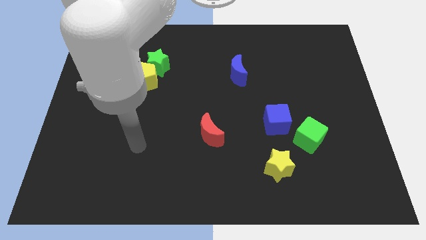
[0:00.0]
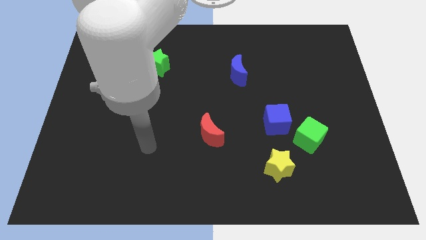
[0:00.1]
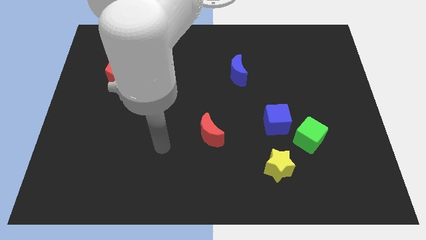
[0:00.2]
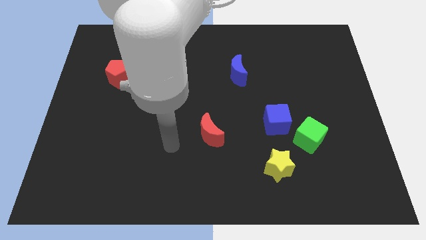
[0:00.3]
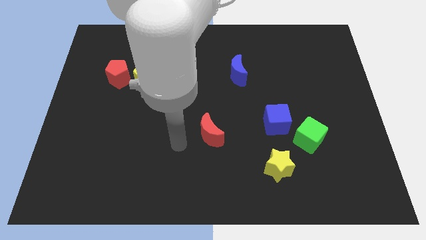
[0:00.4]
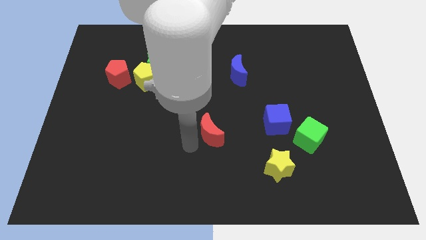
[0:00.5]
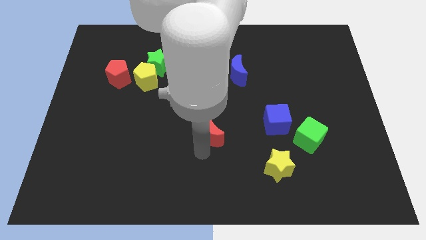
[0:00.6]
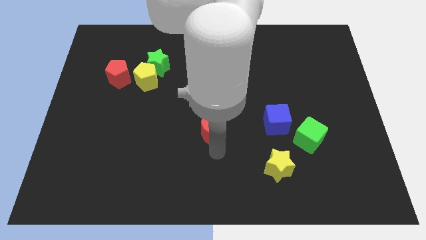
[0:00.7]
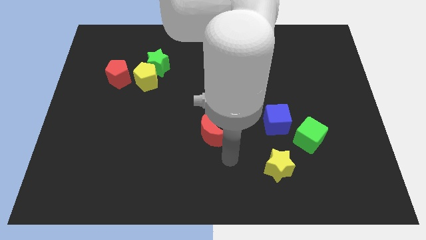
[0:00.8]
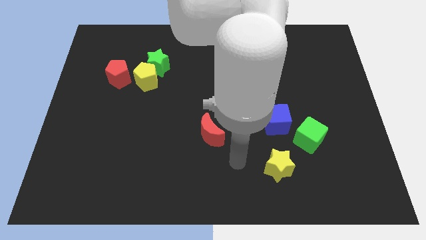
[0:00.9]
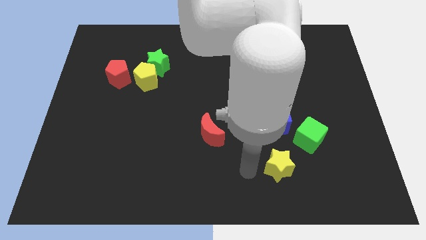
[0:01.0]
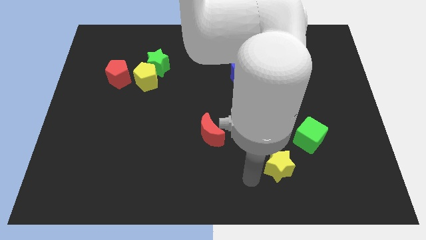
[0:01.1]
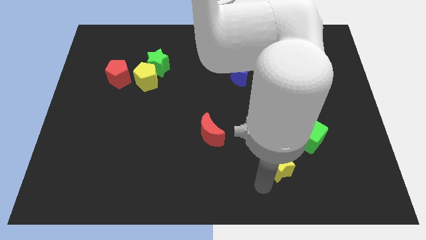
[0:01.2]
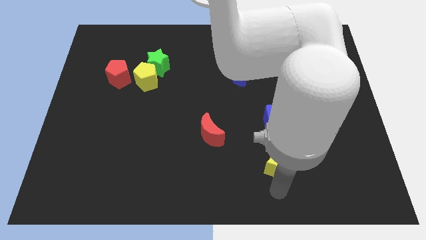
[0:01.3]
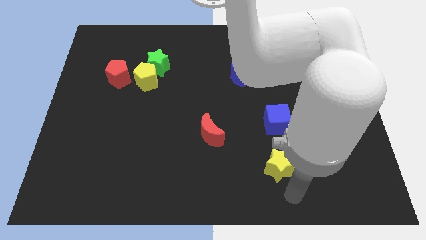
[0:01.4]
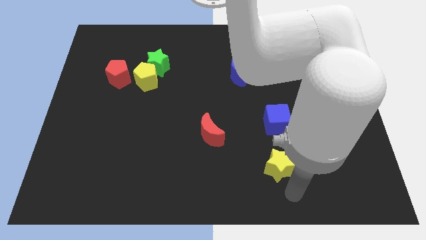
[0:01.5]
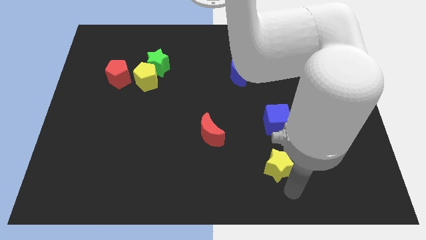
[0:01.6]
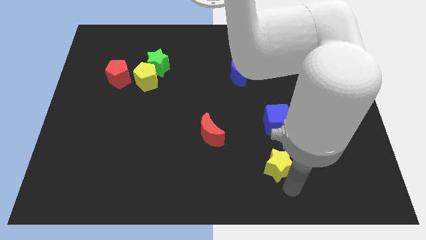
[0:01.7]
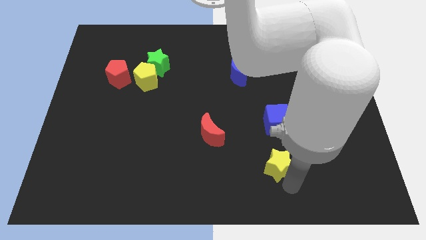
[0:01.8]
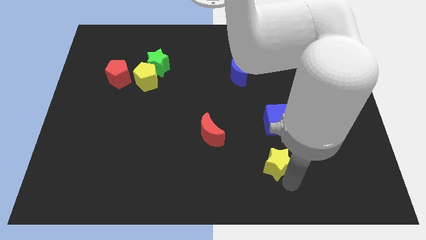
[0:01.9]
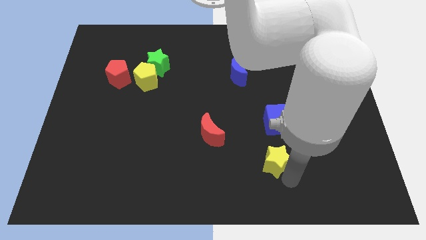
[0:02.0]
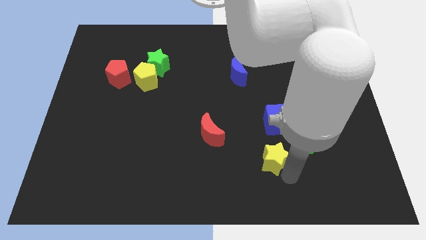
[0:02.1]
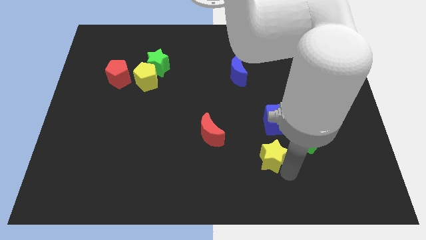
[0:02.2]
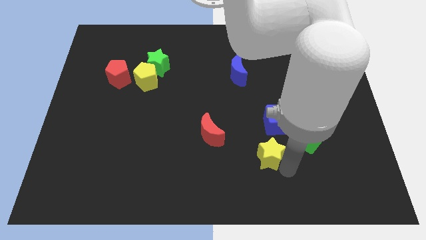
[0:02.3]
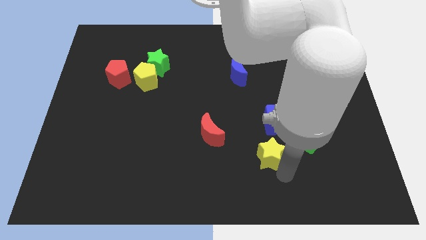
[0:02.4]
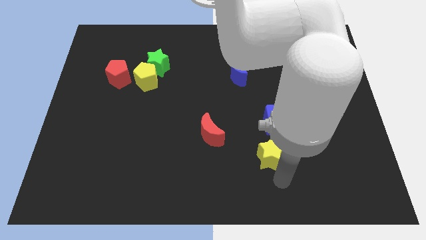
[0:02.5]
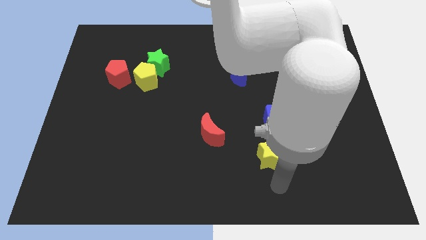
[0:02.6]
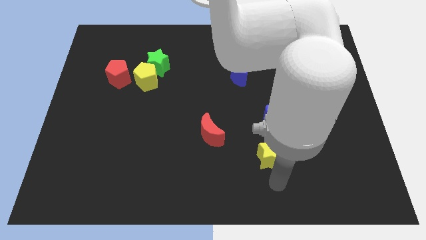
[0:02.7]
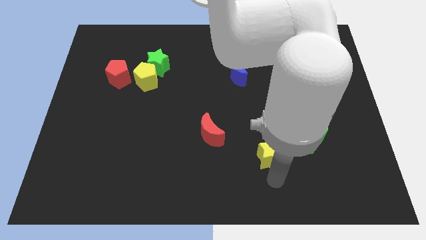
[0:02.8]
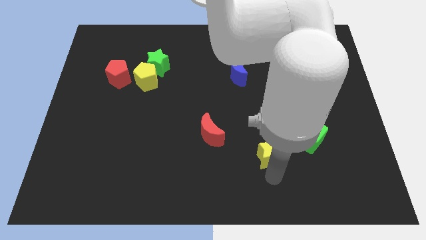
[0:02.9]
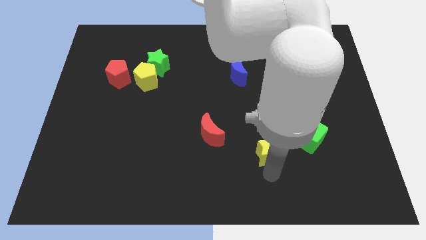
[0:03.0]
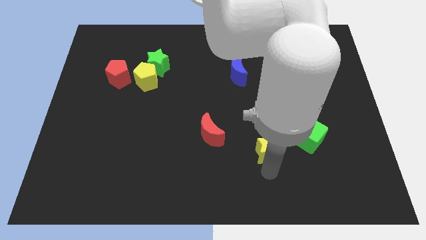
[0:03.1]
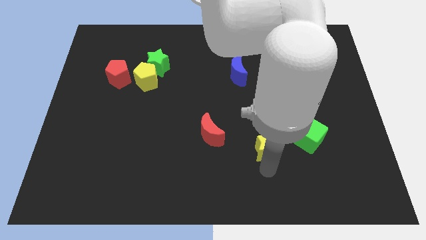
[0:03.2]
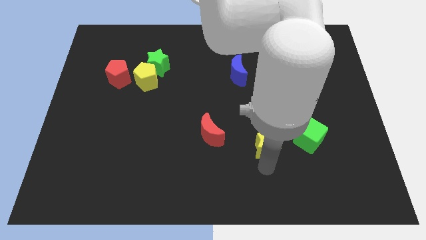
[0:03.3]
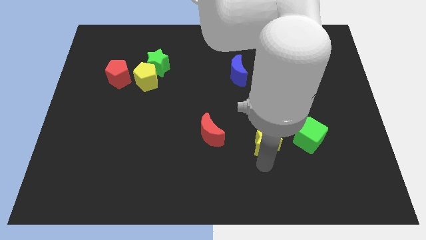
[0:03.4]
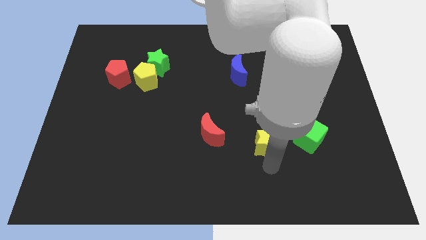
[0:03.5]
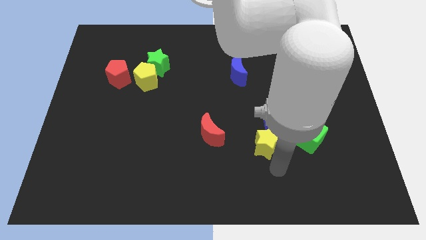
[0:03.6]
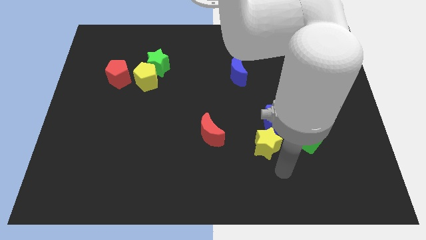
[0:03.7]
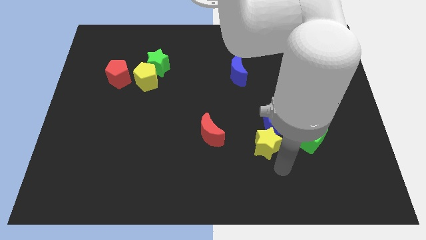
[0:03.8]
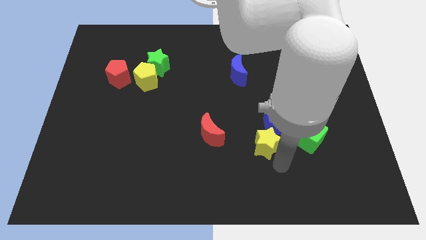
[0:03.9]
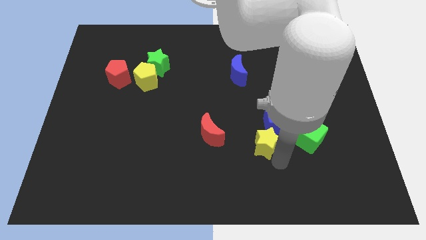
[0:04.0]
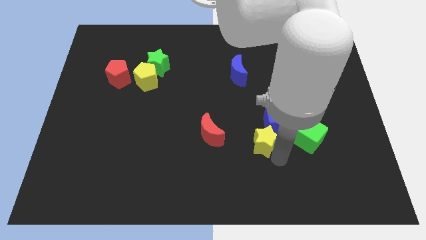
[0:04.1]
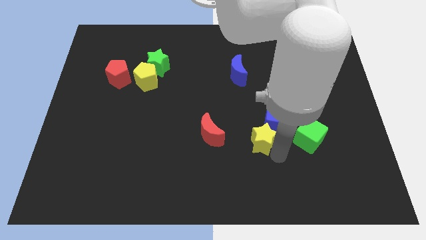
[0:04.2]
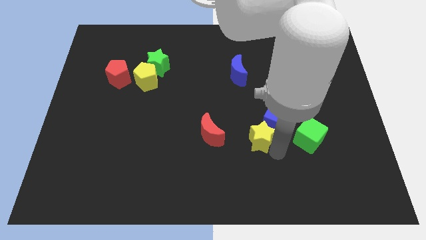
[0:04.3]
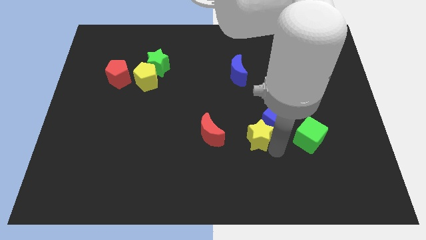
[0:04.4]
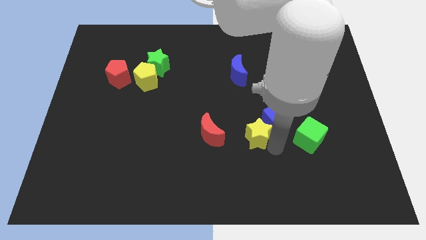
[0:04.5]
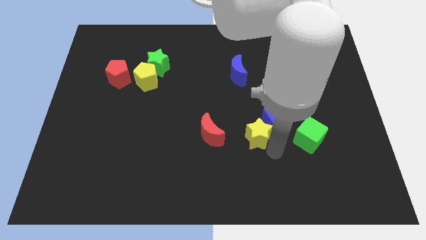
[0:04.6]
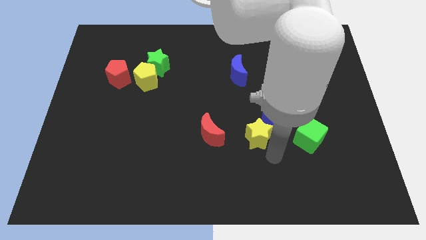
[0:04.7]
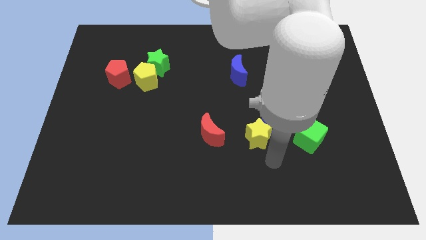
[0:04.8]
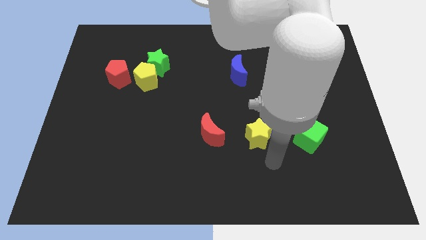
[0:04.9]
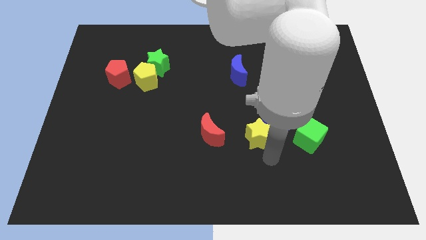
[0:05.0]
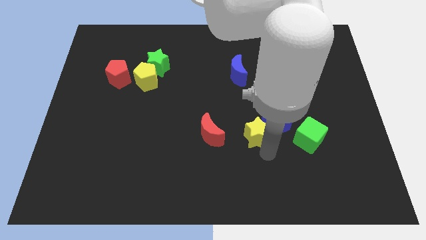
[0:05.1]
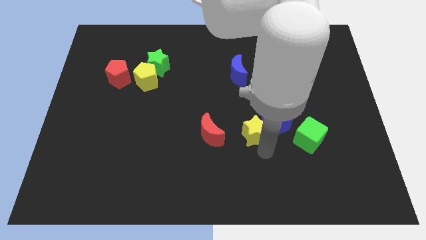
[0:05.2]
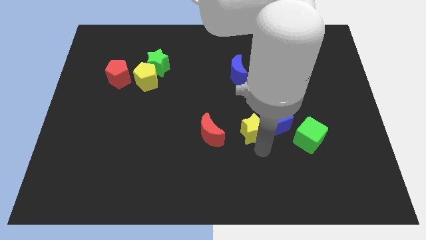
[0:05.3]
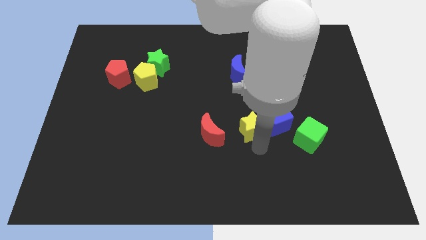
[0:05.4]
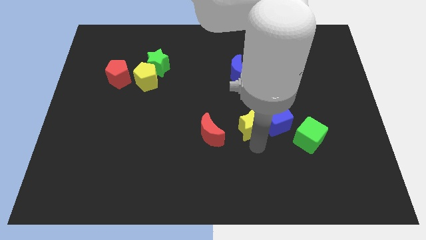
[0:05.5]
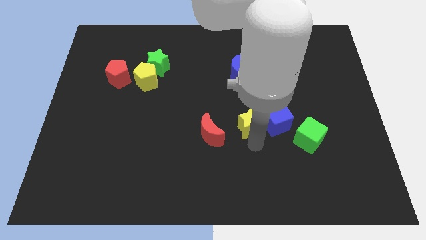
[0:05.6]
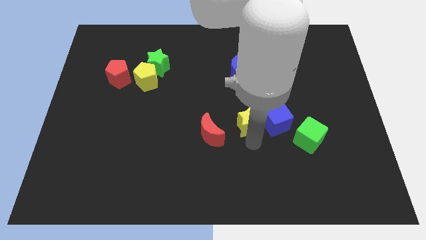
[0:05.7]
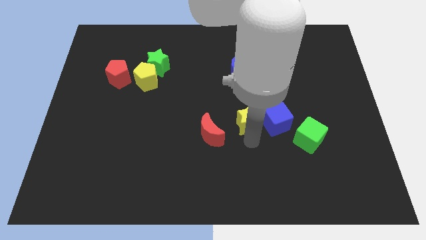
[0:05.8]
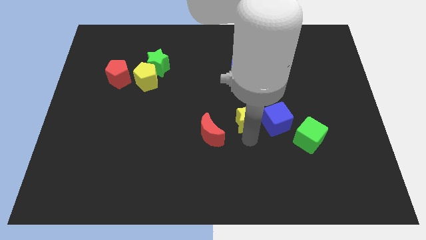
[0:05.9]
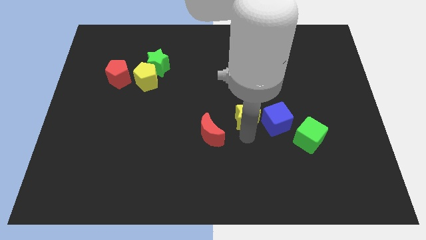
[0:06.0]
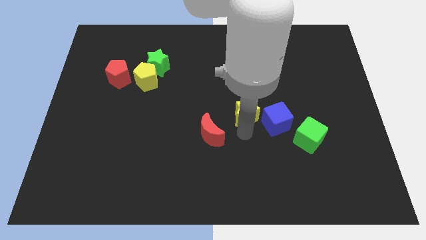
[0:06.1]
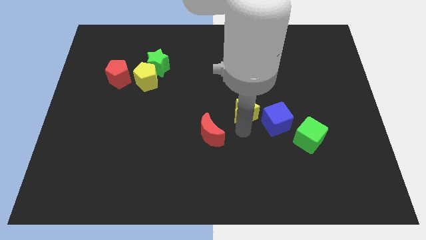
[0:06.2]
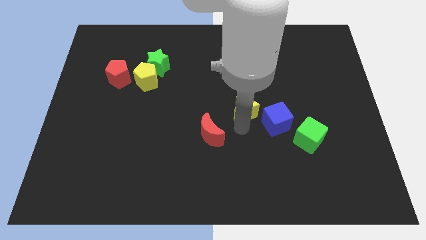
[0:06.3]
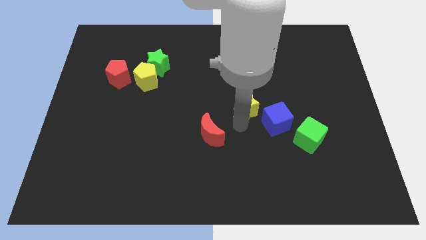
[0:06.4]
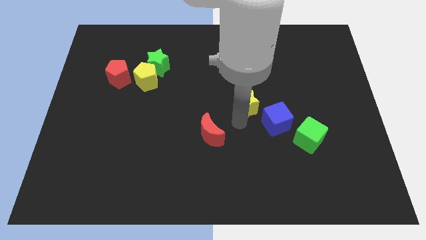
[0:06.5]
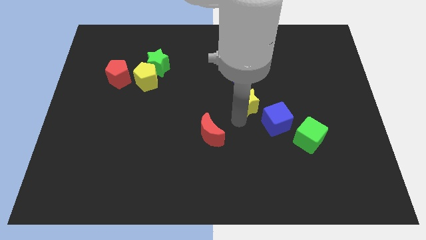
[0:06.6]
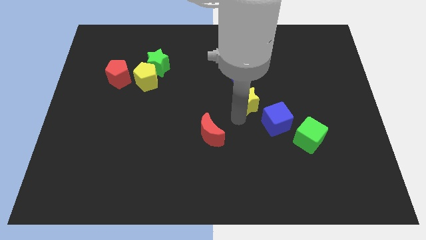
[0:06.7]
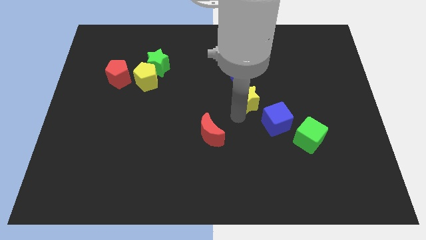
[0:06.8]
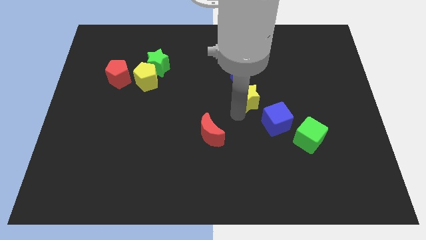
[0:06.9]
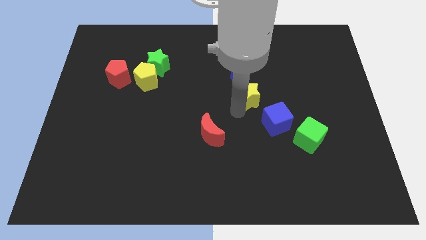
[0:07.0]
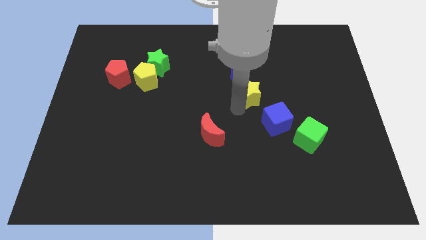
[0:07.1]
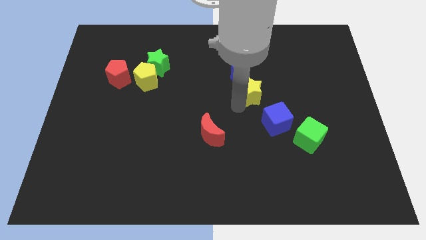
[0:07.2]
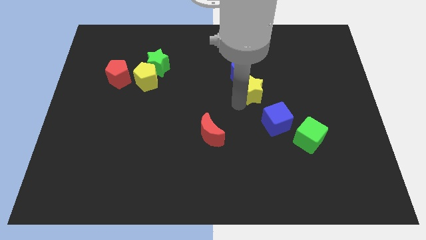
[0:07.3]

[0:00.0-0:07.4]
push the yellow star upwards

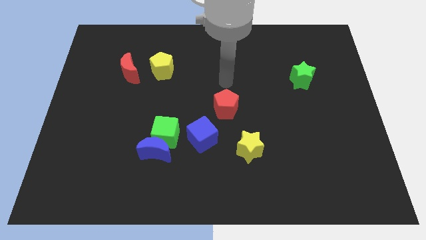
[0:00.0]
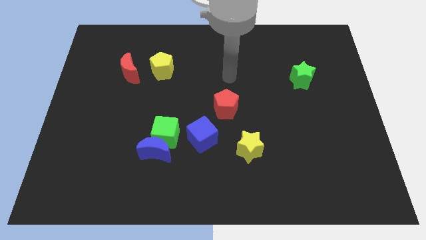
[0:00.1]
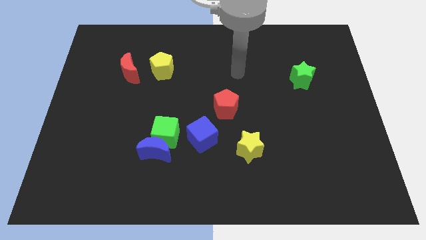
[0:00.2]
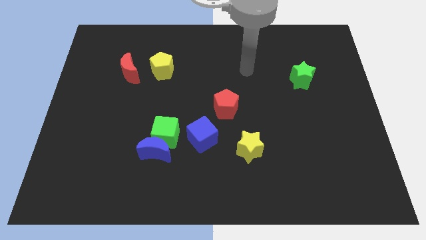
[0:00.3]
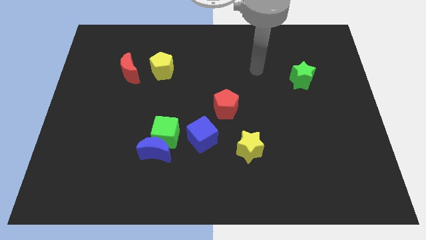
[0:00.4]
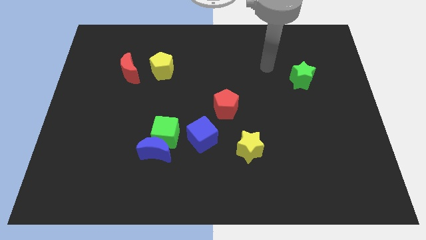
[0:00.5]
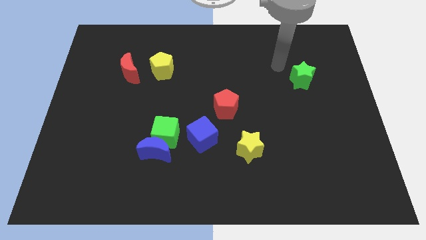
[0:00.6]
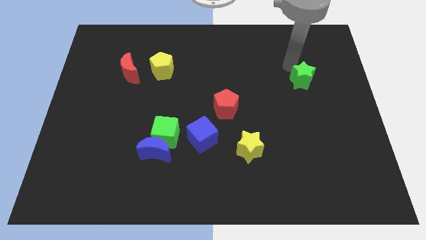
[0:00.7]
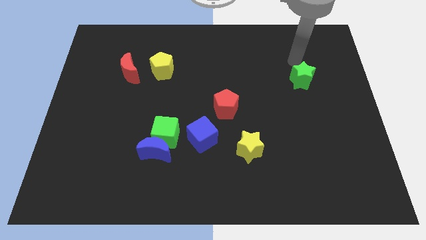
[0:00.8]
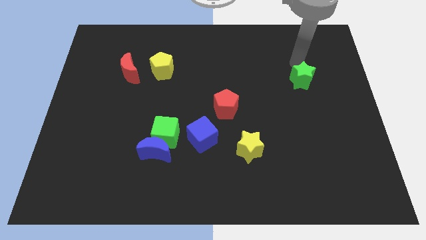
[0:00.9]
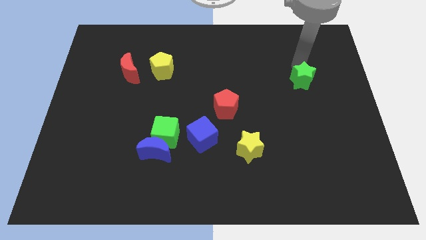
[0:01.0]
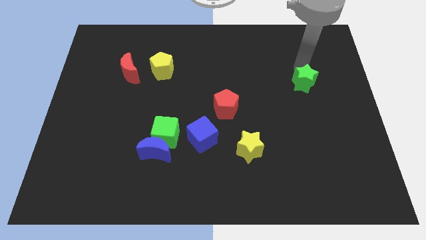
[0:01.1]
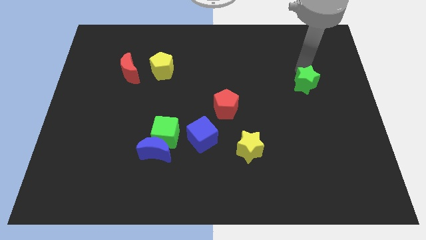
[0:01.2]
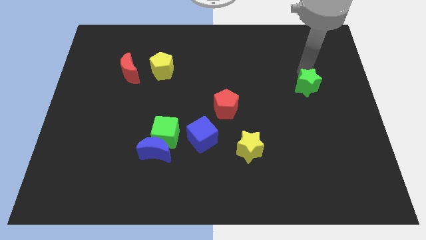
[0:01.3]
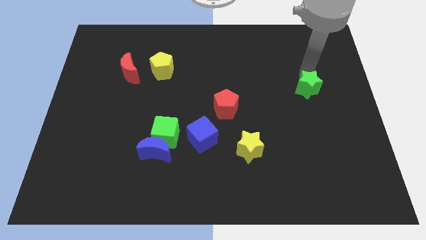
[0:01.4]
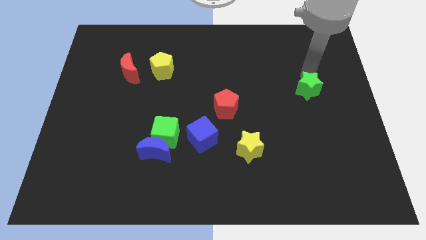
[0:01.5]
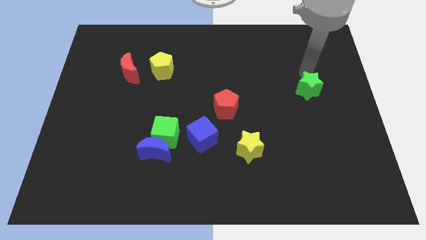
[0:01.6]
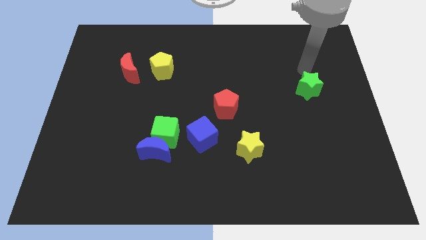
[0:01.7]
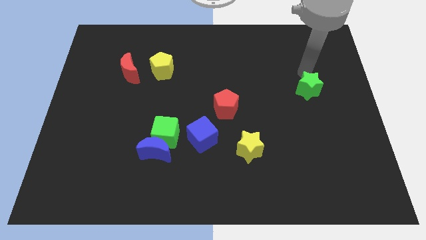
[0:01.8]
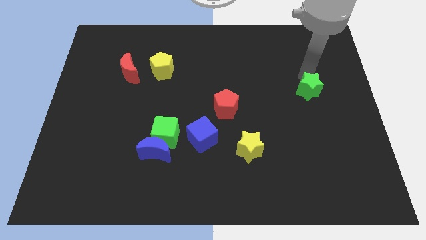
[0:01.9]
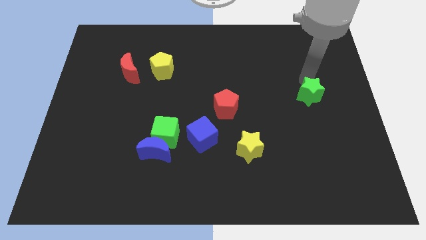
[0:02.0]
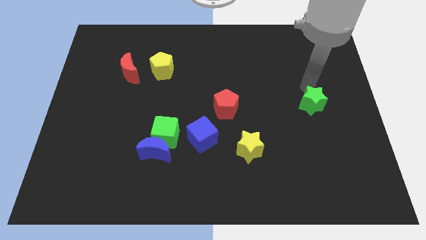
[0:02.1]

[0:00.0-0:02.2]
slide the green star a little downwards
